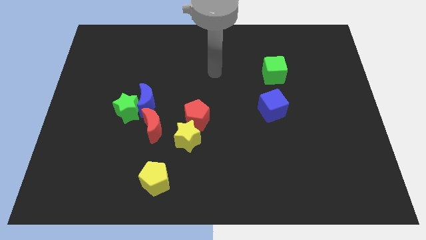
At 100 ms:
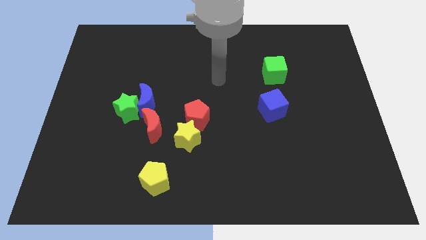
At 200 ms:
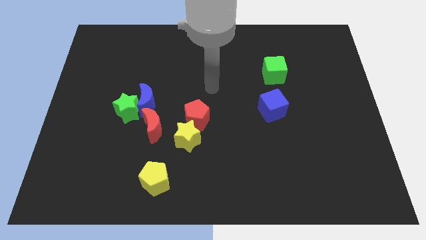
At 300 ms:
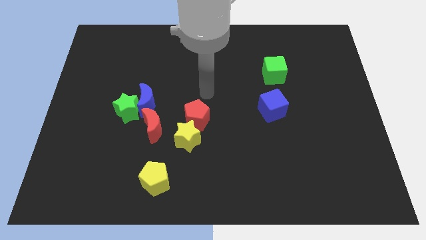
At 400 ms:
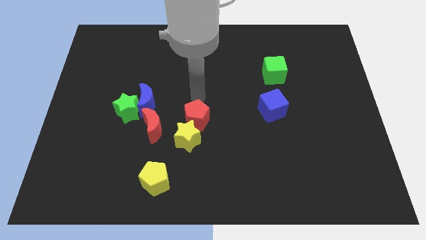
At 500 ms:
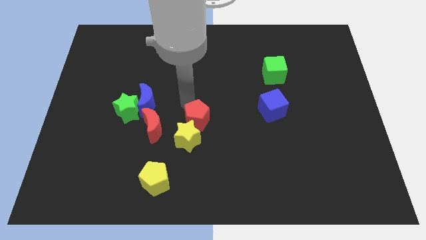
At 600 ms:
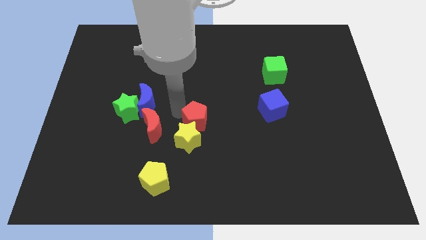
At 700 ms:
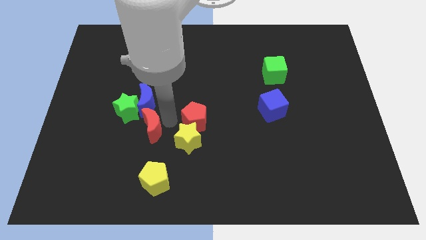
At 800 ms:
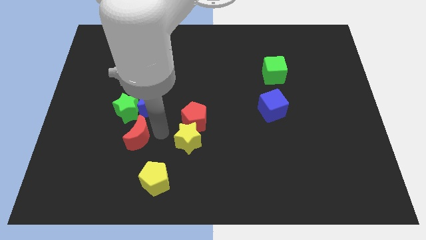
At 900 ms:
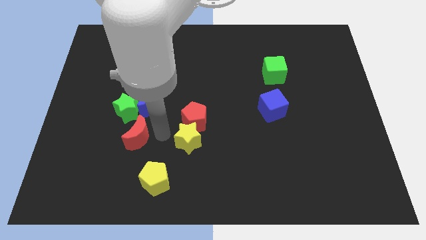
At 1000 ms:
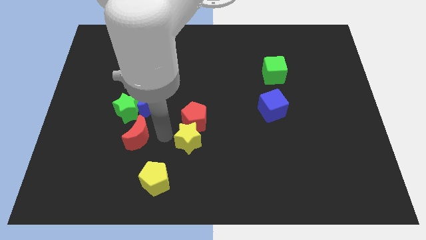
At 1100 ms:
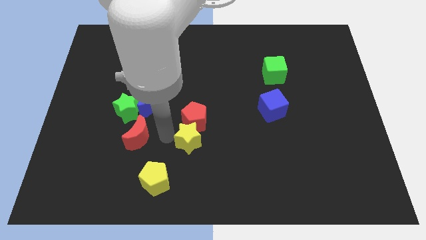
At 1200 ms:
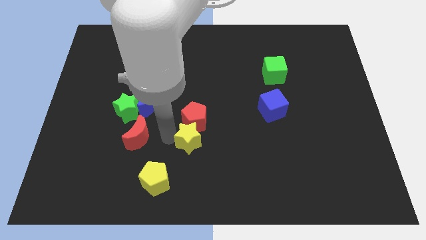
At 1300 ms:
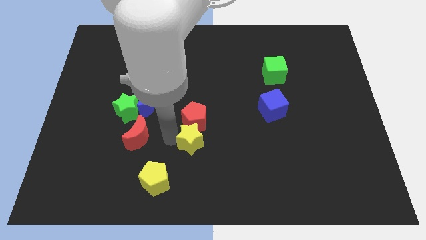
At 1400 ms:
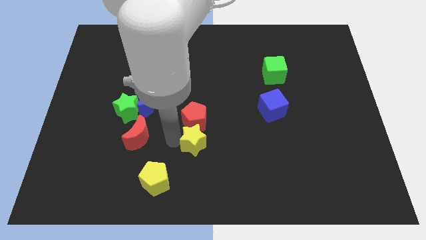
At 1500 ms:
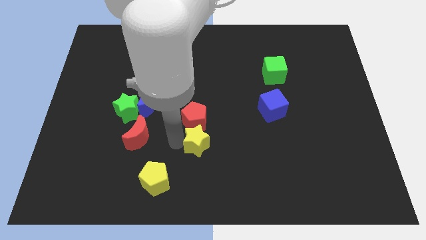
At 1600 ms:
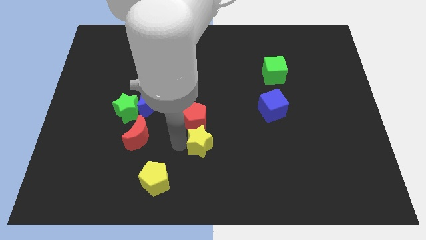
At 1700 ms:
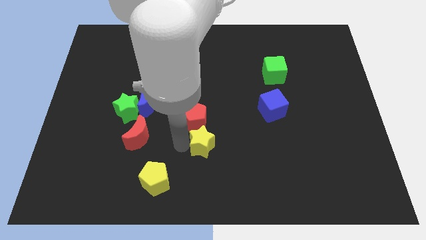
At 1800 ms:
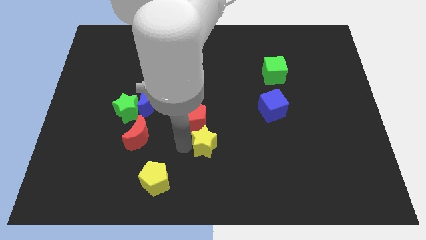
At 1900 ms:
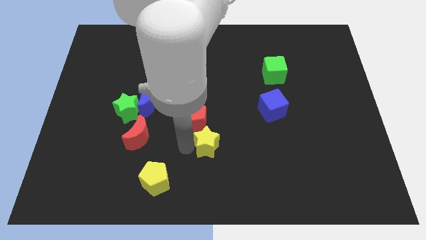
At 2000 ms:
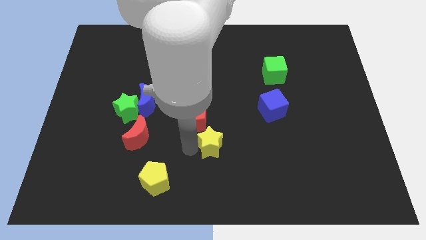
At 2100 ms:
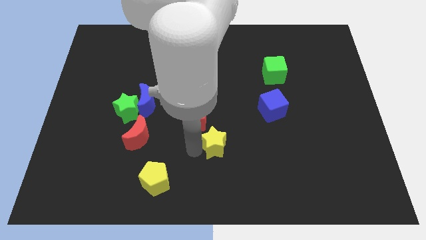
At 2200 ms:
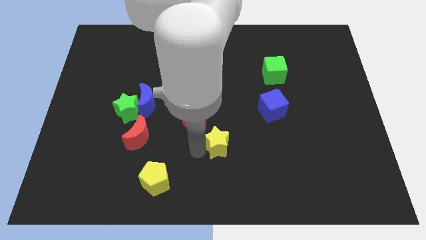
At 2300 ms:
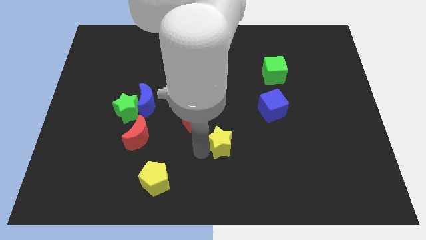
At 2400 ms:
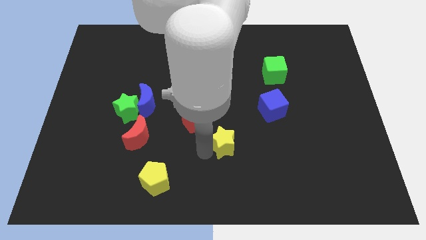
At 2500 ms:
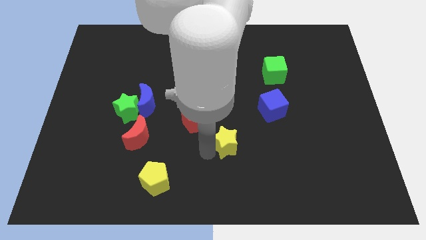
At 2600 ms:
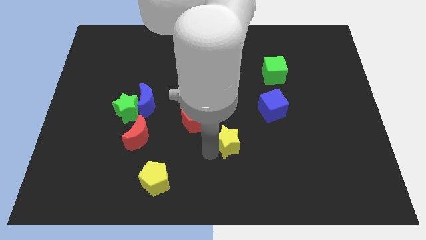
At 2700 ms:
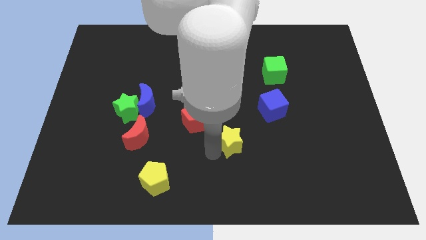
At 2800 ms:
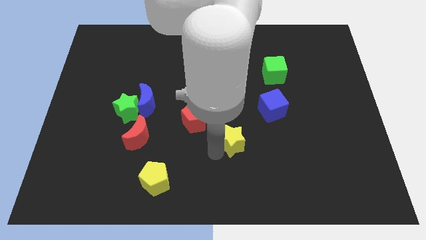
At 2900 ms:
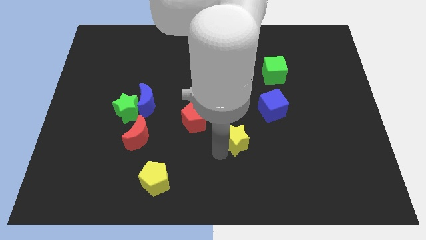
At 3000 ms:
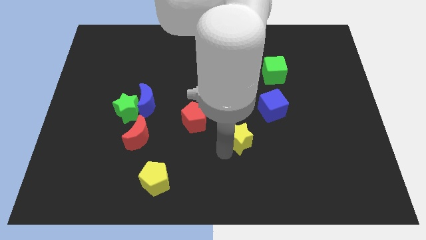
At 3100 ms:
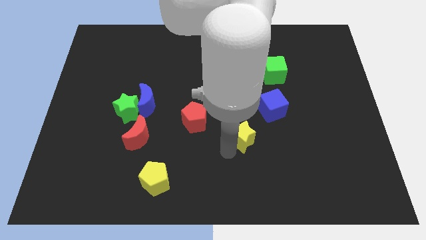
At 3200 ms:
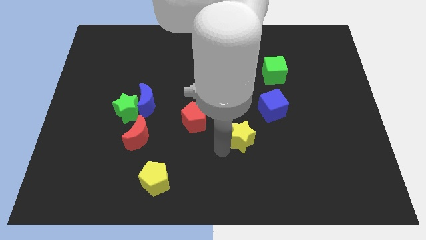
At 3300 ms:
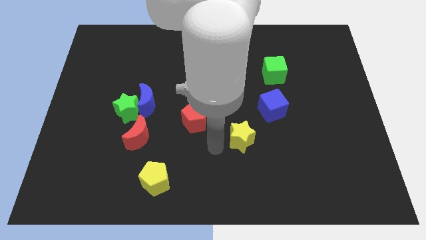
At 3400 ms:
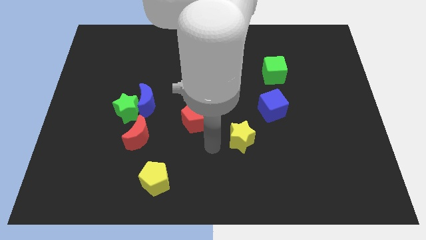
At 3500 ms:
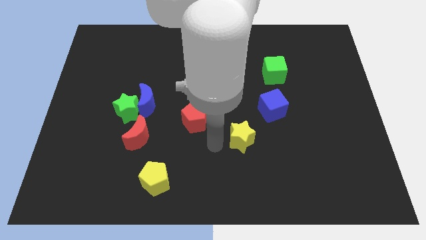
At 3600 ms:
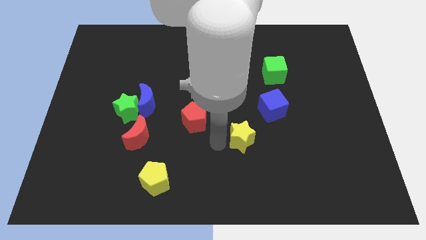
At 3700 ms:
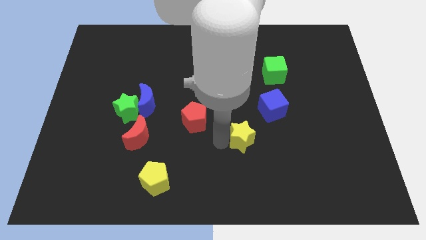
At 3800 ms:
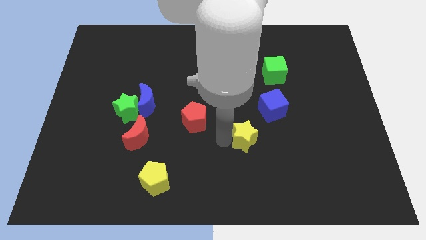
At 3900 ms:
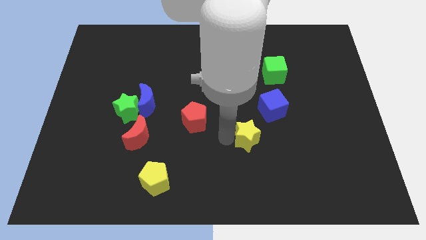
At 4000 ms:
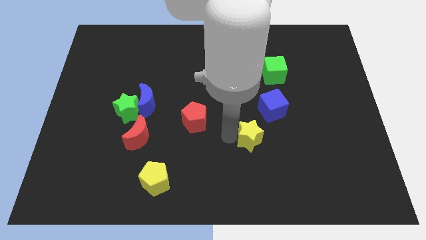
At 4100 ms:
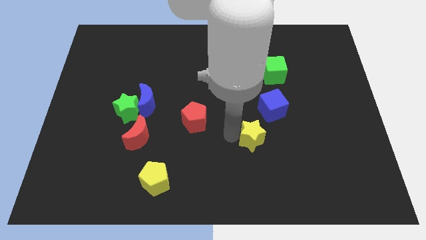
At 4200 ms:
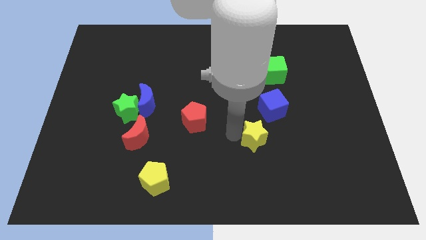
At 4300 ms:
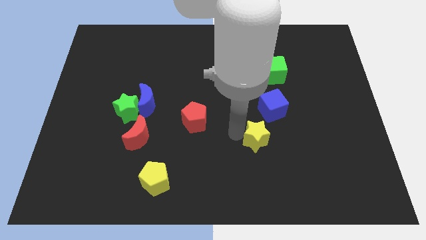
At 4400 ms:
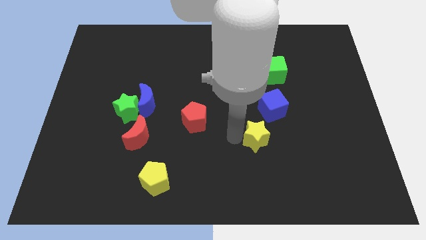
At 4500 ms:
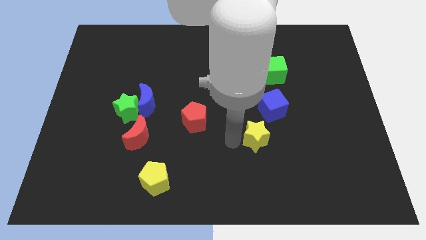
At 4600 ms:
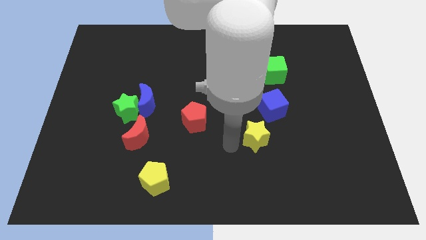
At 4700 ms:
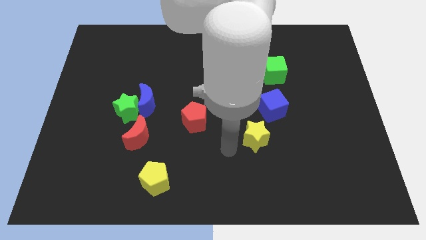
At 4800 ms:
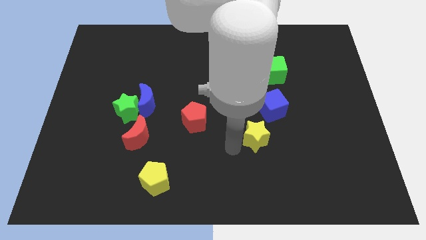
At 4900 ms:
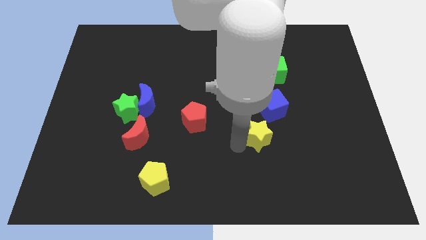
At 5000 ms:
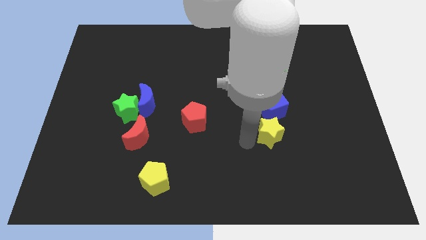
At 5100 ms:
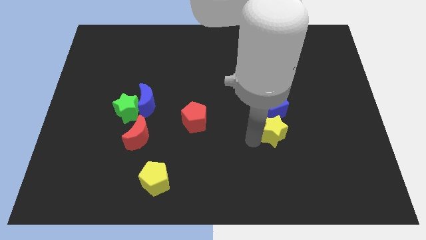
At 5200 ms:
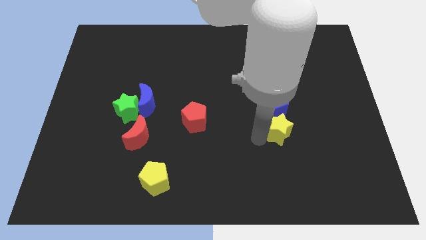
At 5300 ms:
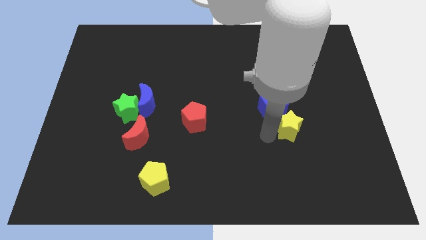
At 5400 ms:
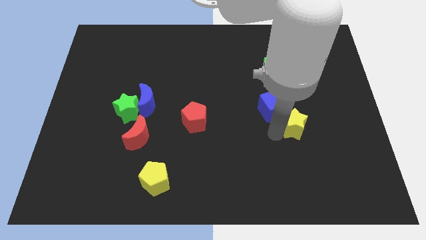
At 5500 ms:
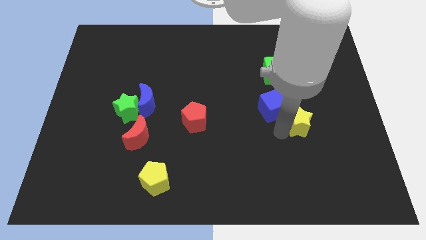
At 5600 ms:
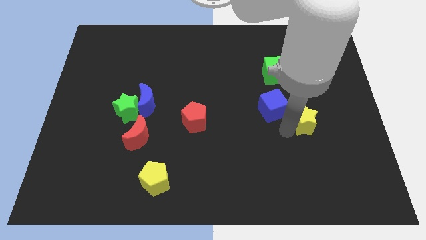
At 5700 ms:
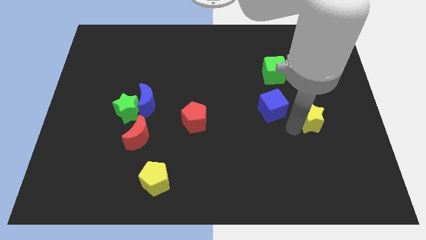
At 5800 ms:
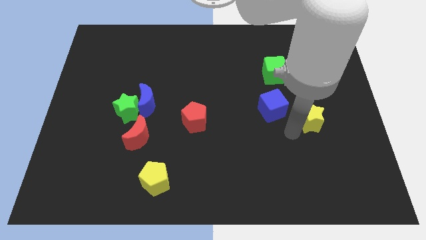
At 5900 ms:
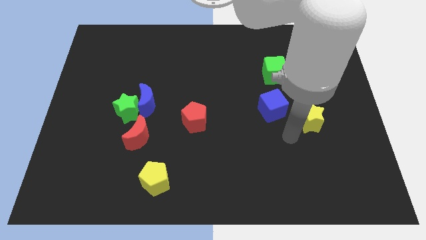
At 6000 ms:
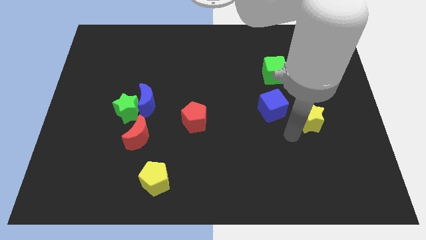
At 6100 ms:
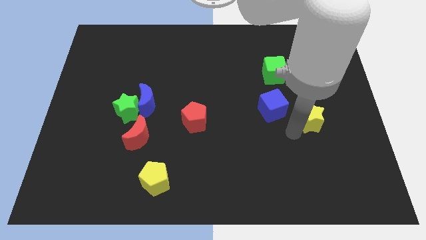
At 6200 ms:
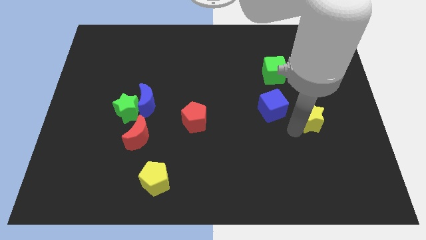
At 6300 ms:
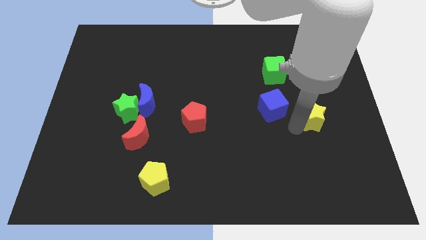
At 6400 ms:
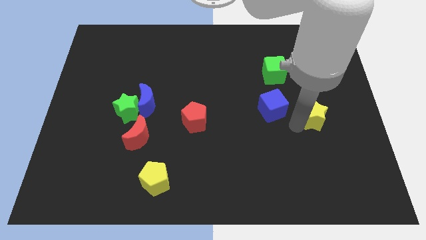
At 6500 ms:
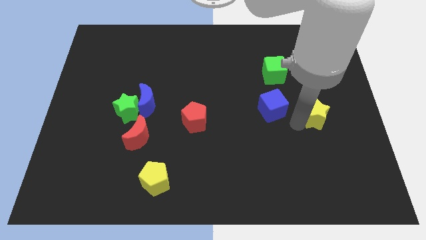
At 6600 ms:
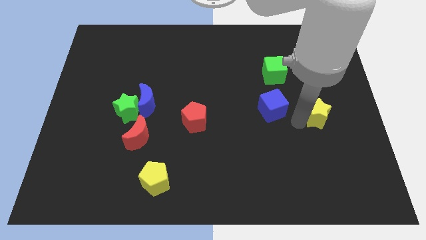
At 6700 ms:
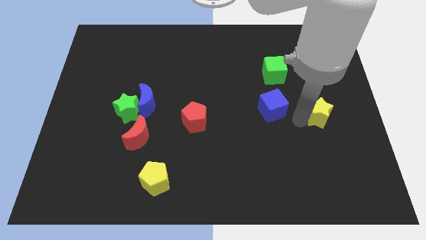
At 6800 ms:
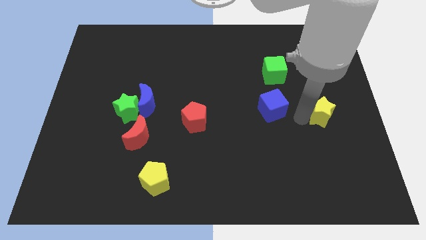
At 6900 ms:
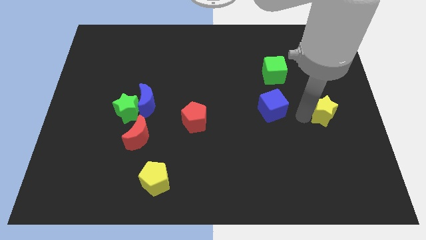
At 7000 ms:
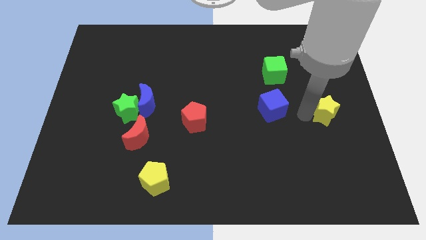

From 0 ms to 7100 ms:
slide the yellow star to the right side
